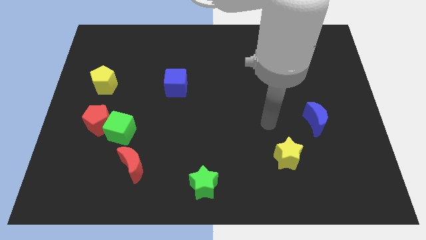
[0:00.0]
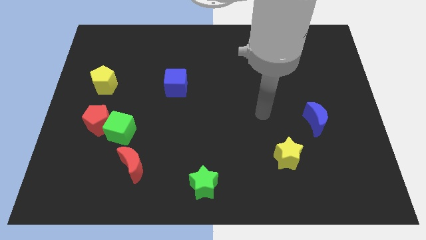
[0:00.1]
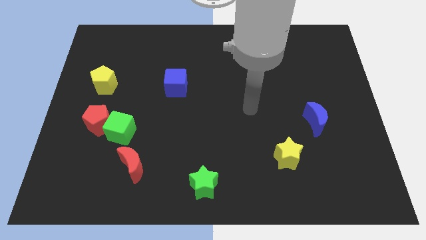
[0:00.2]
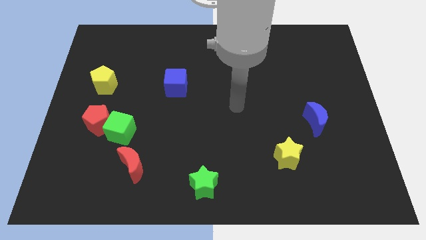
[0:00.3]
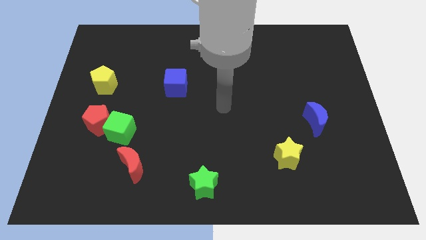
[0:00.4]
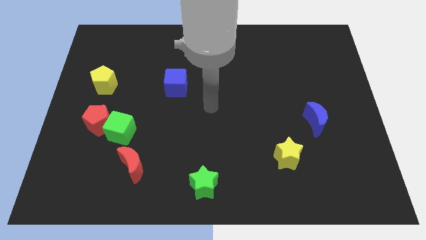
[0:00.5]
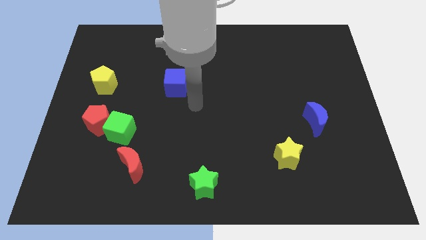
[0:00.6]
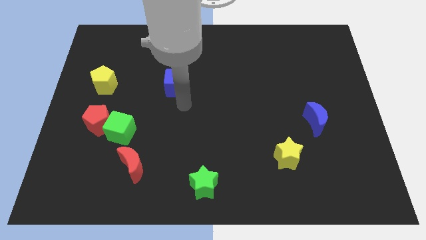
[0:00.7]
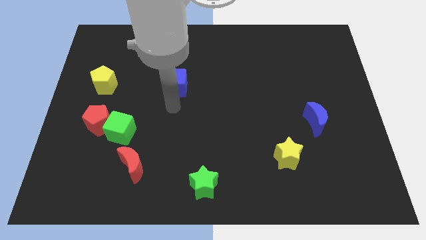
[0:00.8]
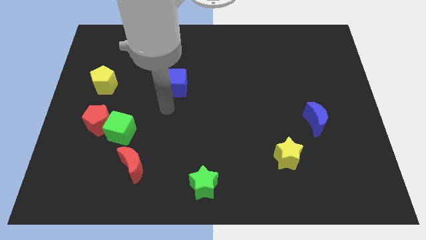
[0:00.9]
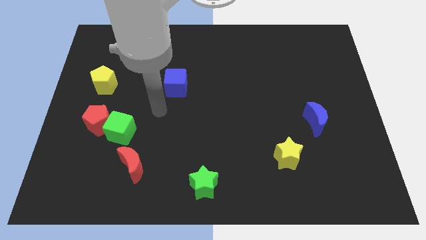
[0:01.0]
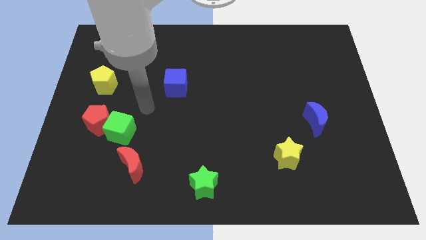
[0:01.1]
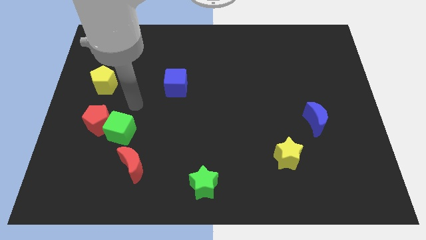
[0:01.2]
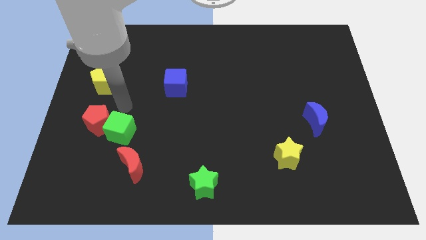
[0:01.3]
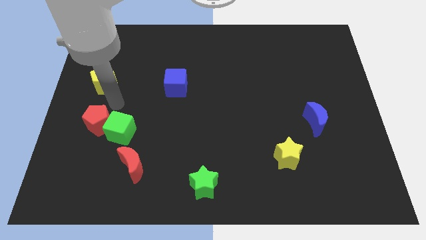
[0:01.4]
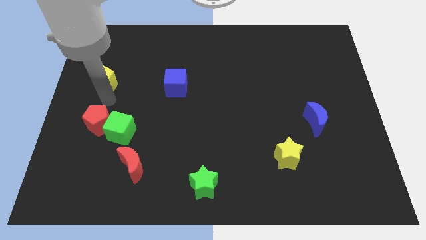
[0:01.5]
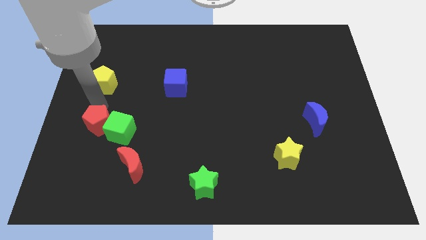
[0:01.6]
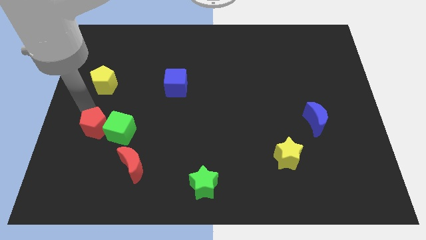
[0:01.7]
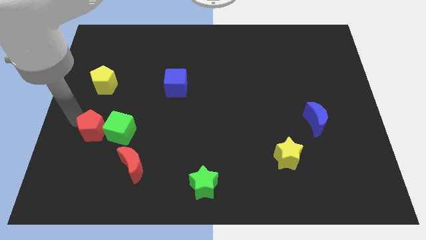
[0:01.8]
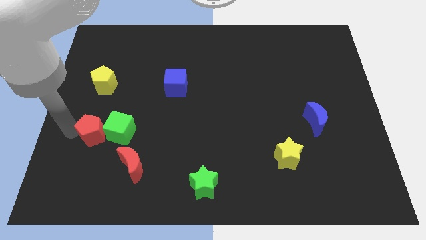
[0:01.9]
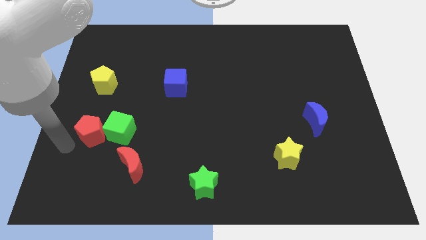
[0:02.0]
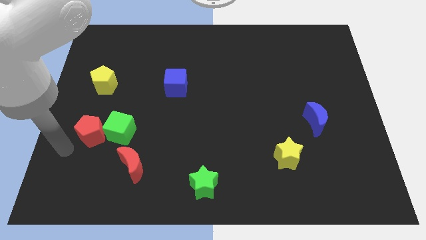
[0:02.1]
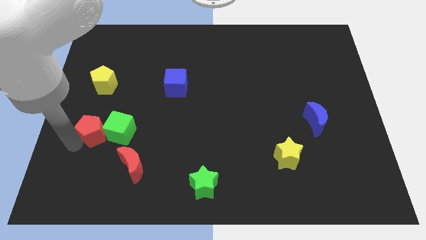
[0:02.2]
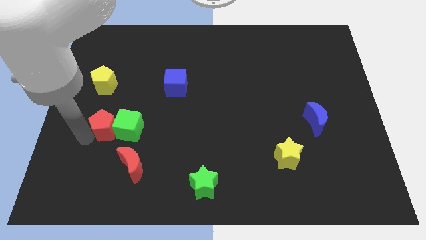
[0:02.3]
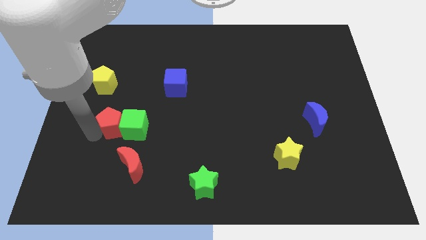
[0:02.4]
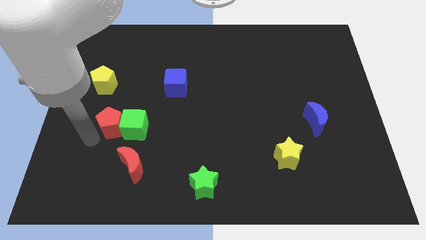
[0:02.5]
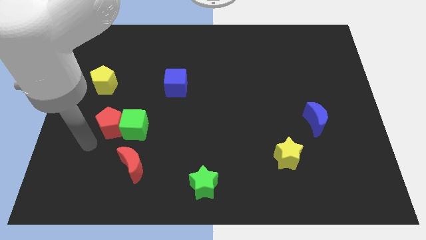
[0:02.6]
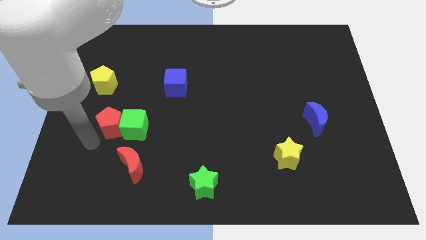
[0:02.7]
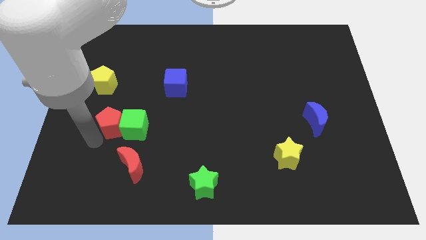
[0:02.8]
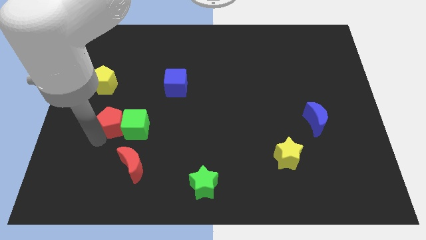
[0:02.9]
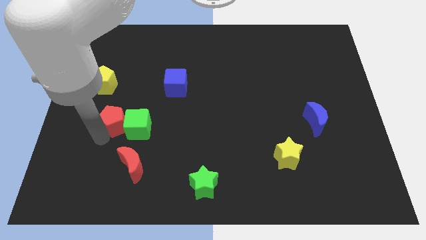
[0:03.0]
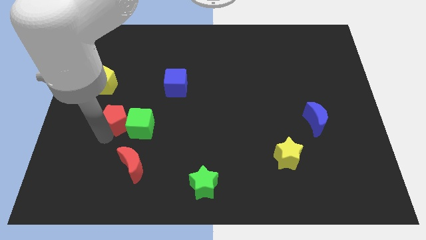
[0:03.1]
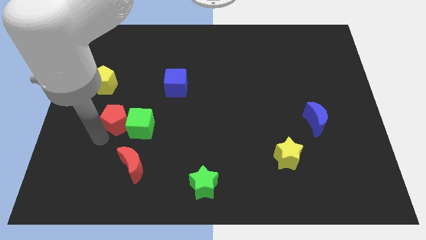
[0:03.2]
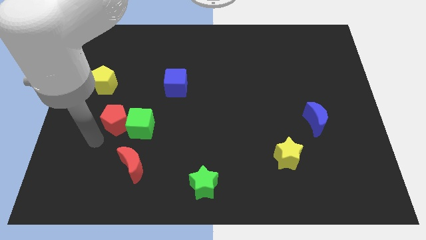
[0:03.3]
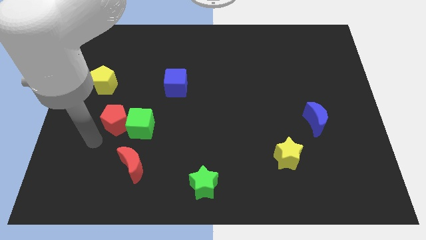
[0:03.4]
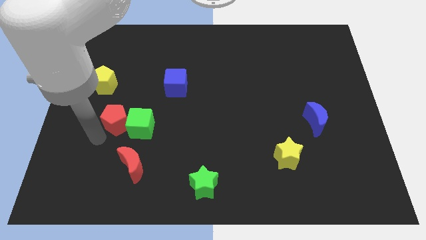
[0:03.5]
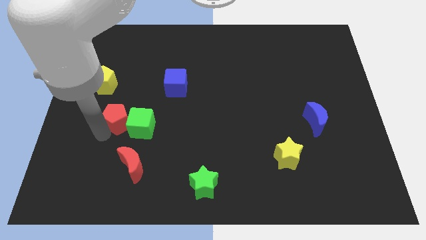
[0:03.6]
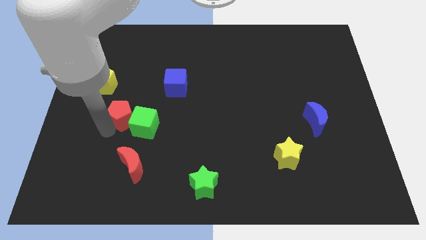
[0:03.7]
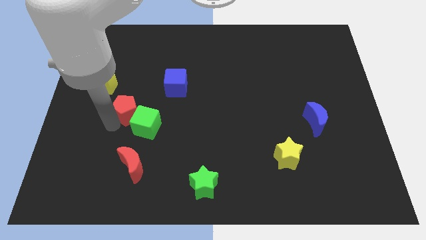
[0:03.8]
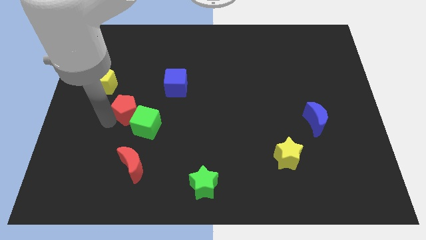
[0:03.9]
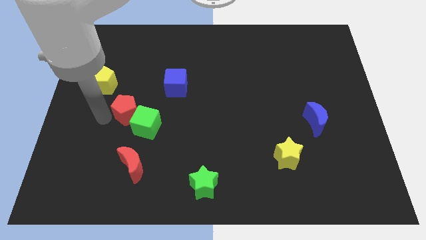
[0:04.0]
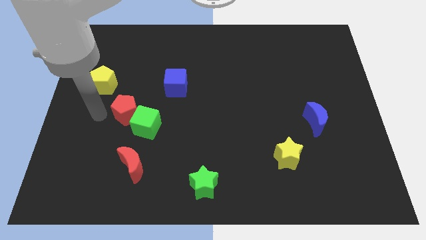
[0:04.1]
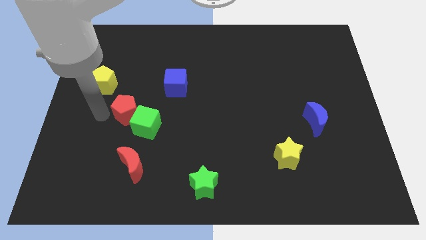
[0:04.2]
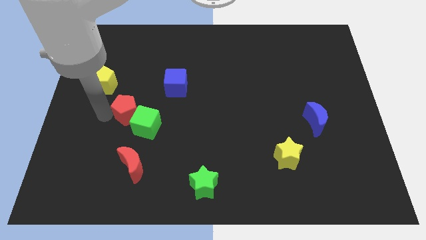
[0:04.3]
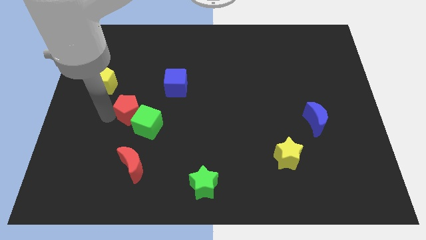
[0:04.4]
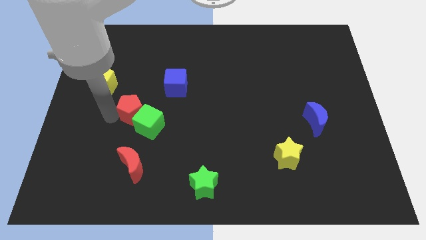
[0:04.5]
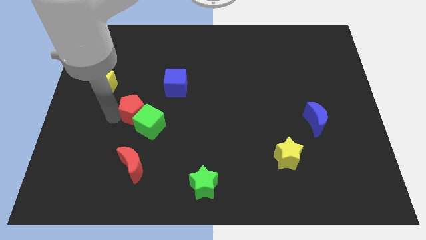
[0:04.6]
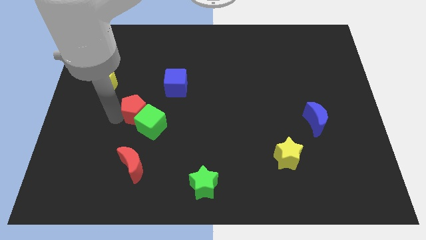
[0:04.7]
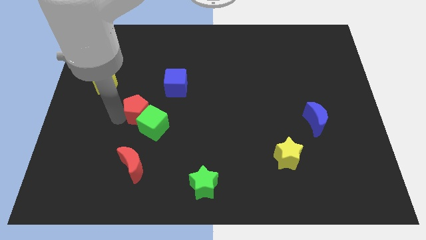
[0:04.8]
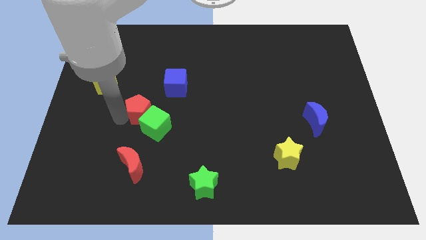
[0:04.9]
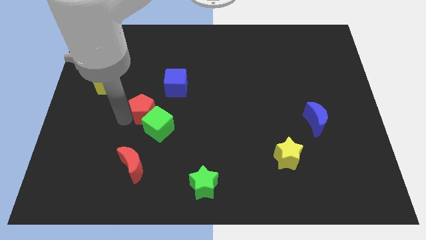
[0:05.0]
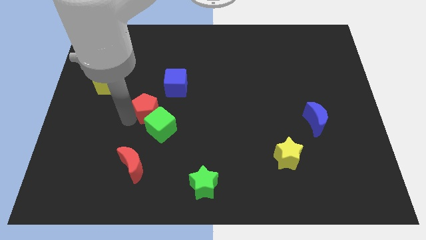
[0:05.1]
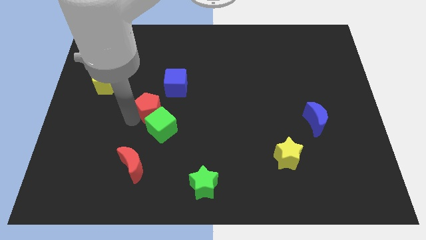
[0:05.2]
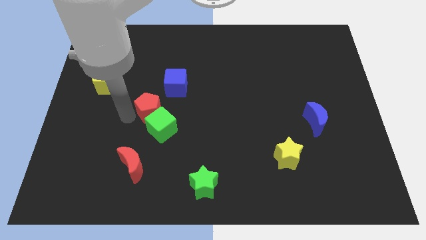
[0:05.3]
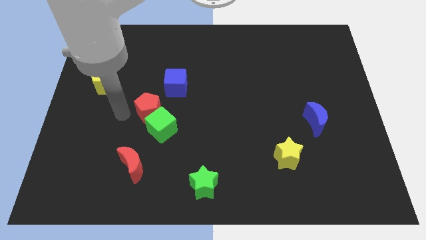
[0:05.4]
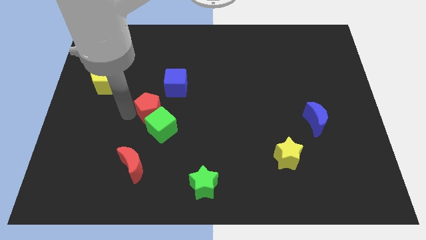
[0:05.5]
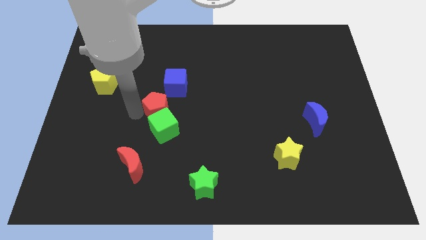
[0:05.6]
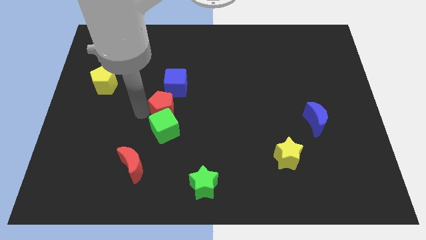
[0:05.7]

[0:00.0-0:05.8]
move the red pentagon to the middle
